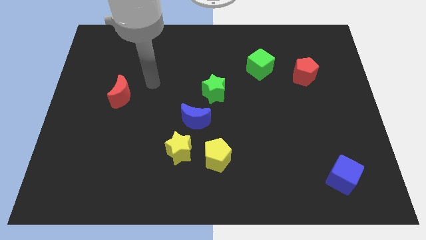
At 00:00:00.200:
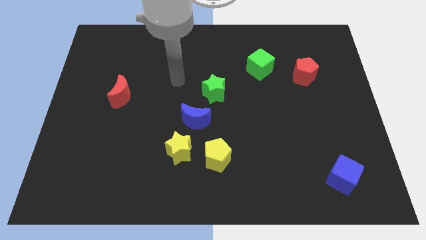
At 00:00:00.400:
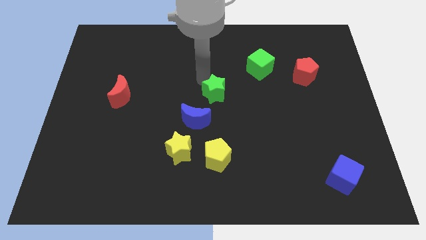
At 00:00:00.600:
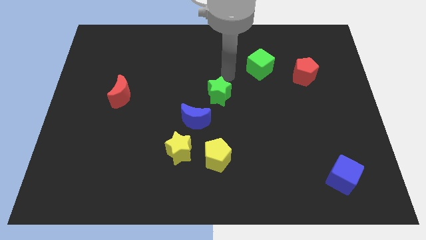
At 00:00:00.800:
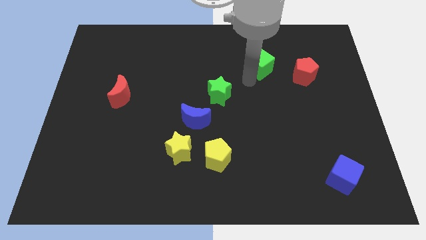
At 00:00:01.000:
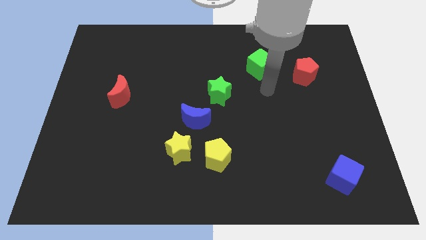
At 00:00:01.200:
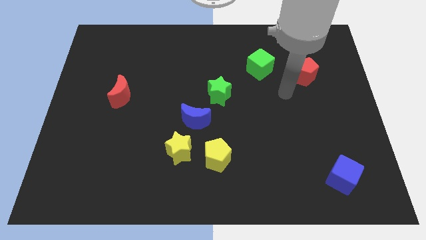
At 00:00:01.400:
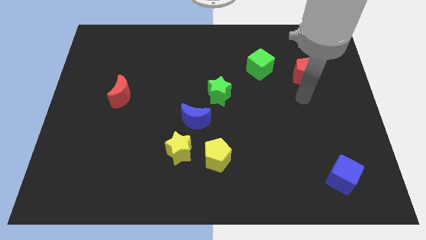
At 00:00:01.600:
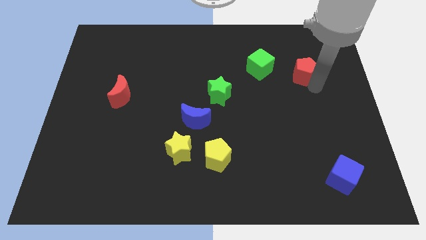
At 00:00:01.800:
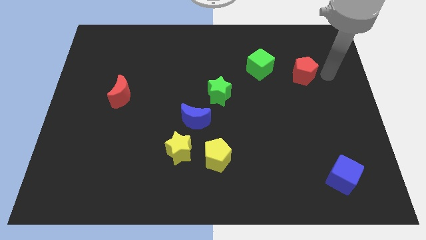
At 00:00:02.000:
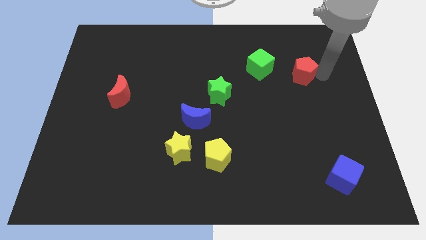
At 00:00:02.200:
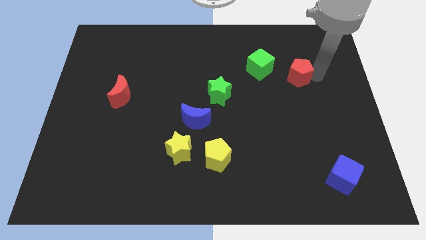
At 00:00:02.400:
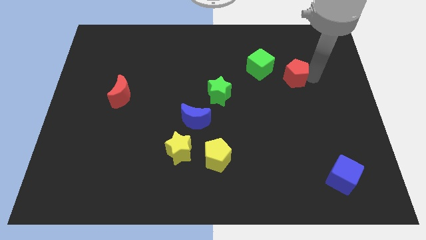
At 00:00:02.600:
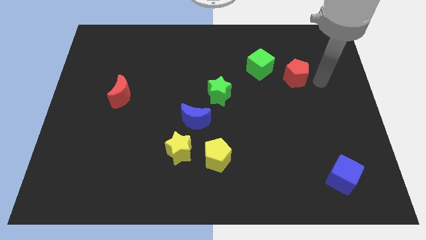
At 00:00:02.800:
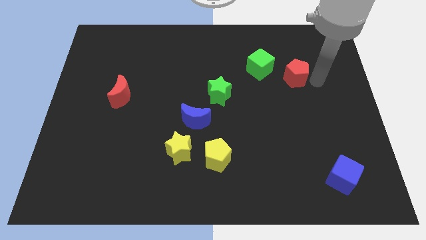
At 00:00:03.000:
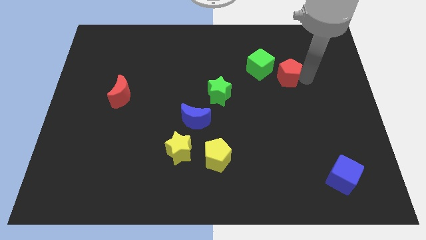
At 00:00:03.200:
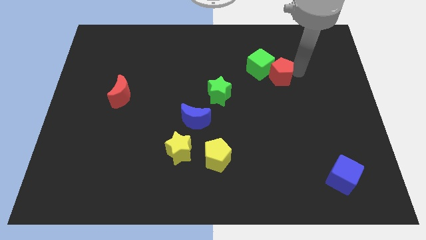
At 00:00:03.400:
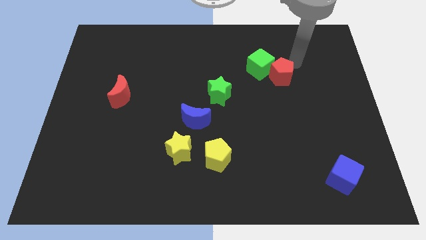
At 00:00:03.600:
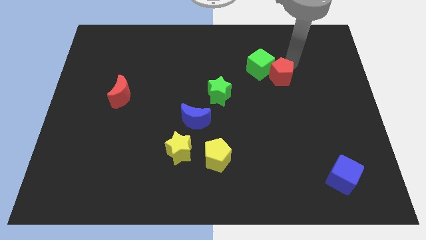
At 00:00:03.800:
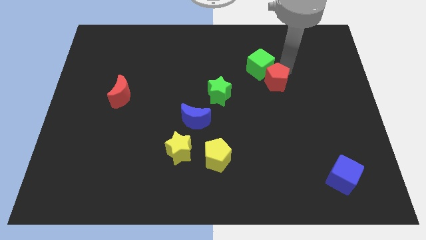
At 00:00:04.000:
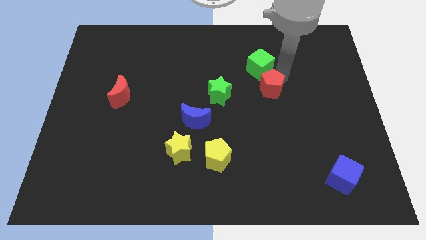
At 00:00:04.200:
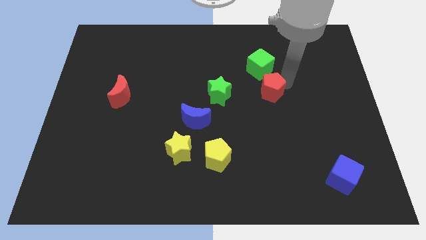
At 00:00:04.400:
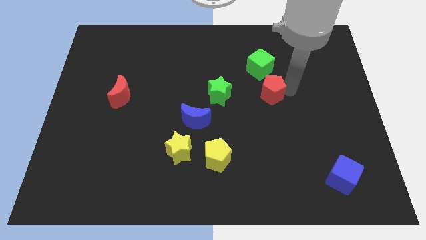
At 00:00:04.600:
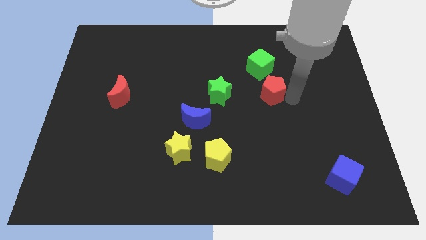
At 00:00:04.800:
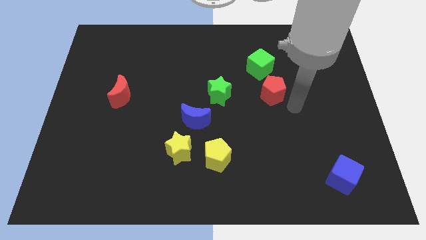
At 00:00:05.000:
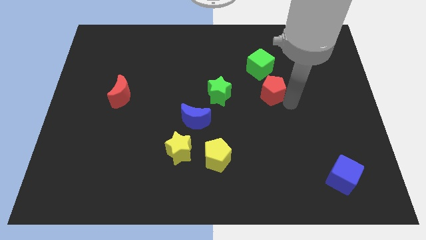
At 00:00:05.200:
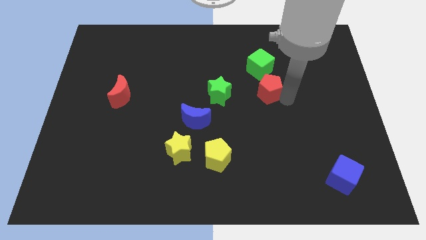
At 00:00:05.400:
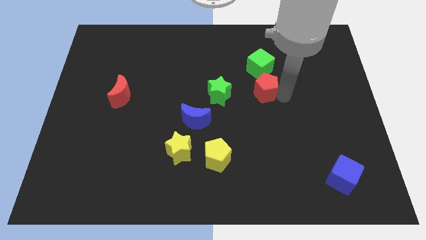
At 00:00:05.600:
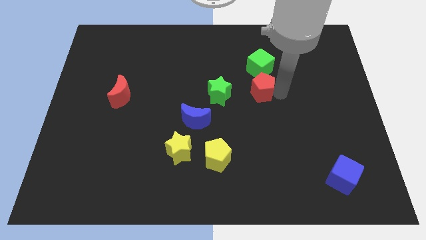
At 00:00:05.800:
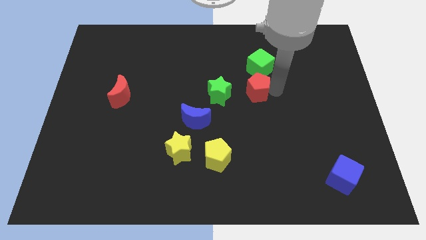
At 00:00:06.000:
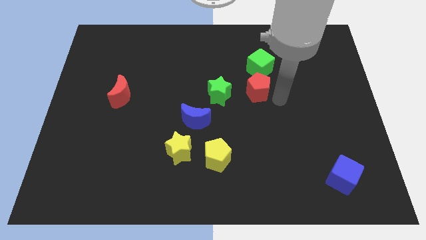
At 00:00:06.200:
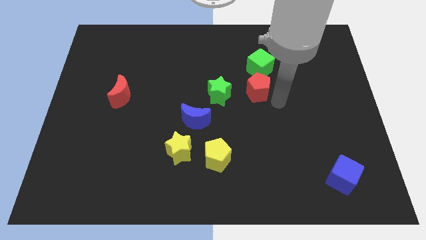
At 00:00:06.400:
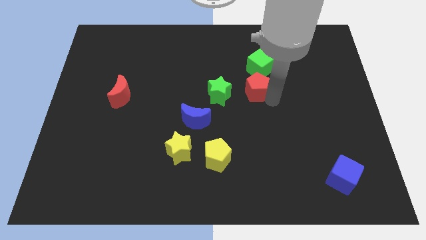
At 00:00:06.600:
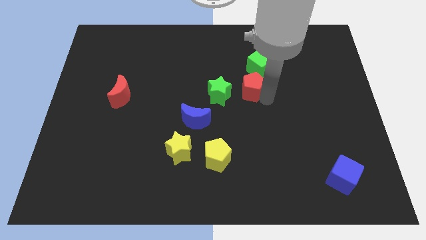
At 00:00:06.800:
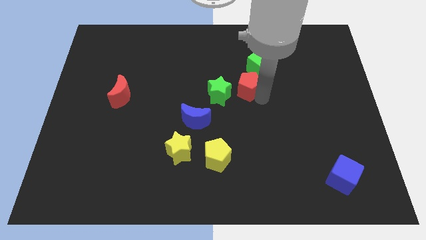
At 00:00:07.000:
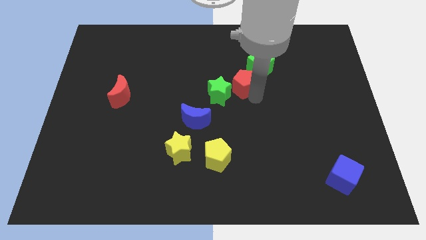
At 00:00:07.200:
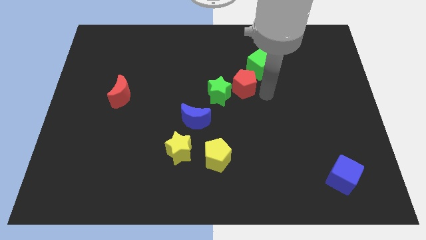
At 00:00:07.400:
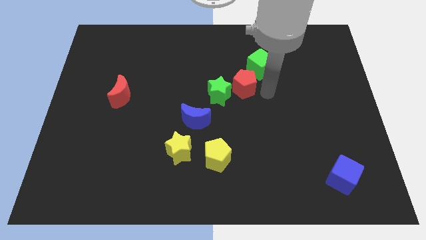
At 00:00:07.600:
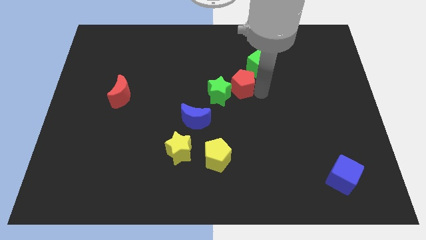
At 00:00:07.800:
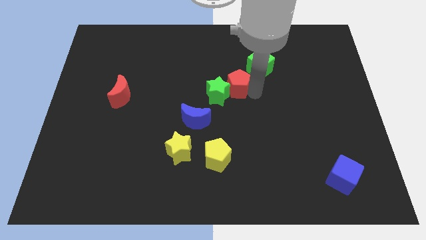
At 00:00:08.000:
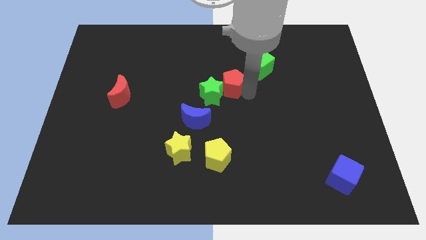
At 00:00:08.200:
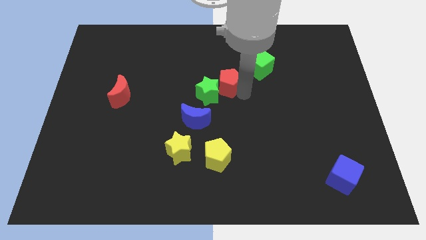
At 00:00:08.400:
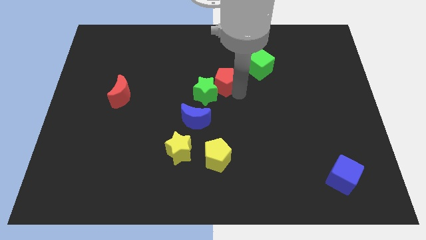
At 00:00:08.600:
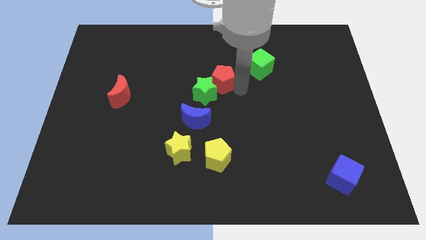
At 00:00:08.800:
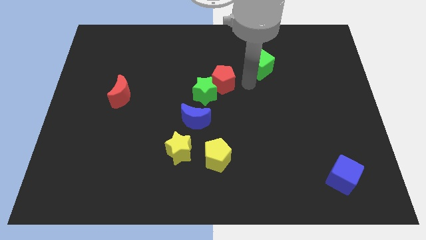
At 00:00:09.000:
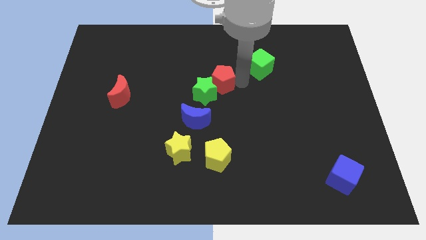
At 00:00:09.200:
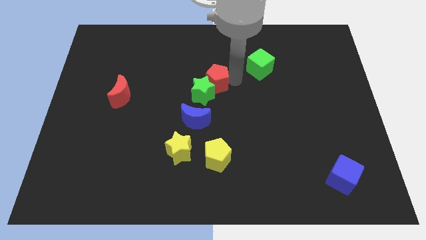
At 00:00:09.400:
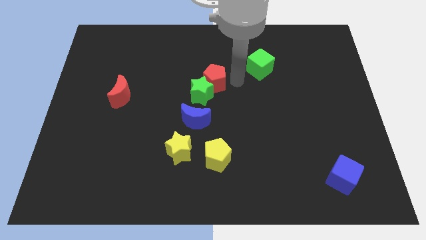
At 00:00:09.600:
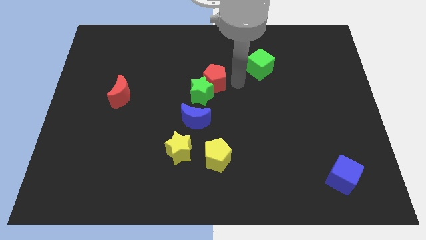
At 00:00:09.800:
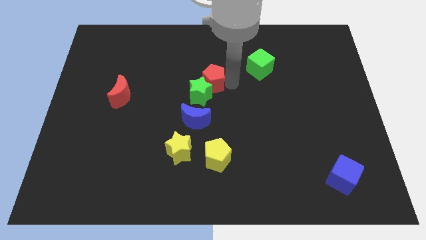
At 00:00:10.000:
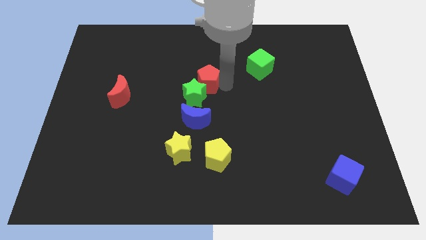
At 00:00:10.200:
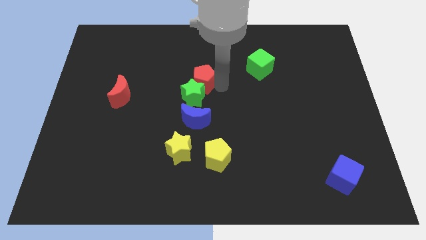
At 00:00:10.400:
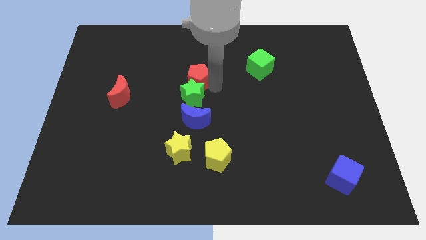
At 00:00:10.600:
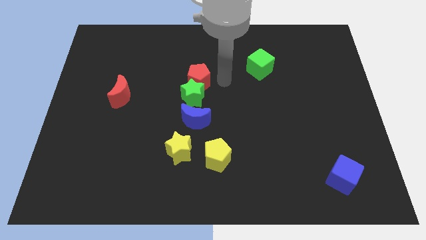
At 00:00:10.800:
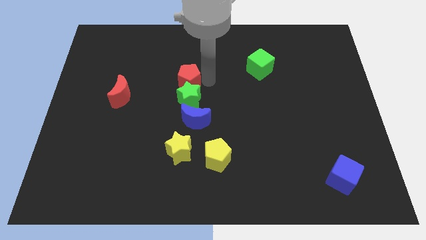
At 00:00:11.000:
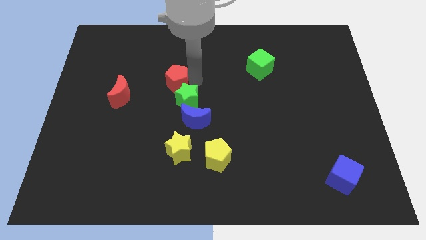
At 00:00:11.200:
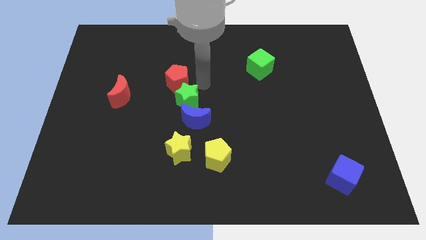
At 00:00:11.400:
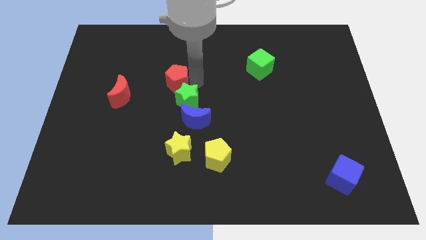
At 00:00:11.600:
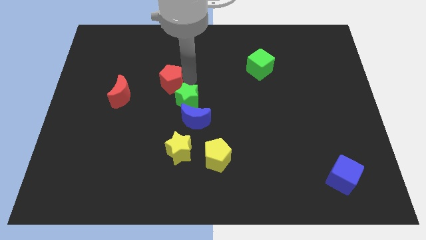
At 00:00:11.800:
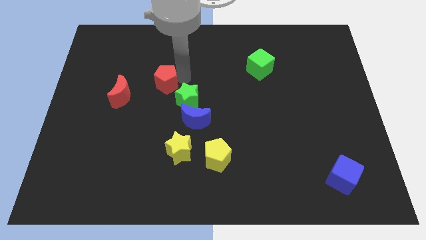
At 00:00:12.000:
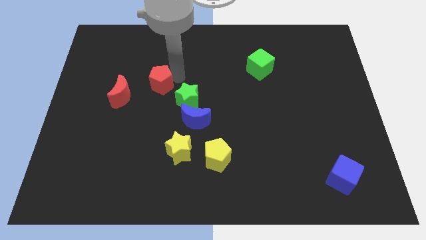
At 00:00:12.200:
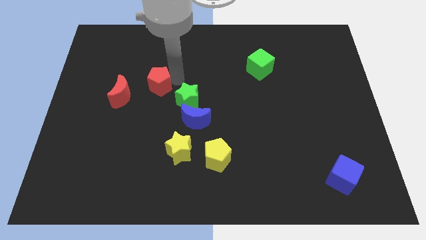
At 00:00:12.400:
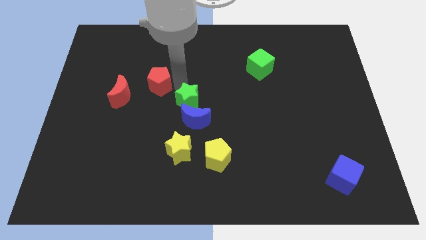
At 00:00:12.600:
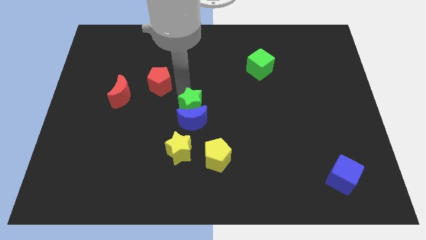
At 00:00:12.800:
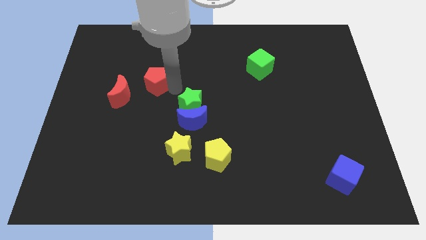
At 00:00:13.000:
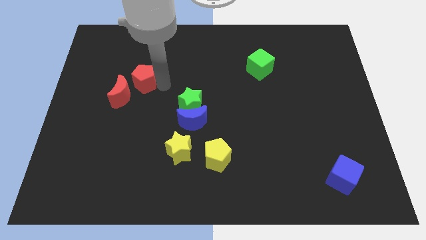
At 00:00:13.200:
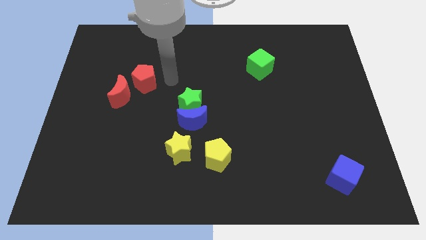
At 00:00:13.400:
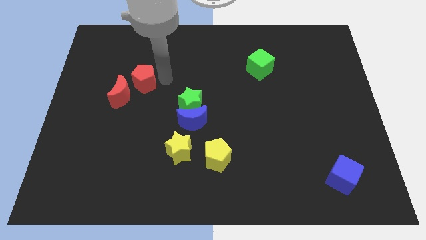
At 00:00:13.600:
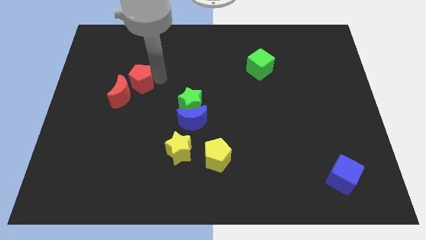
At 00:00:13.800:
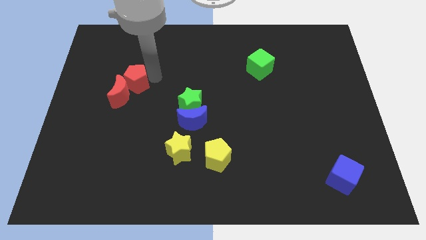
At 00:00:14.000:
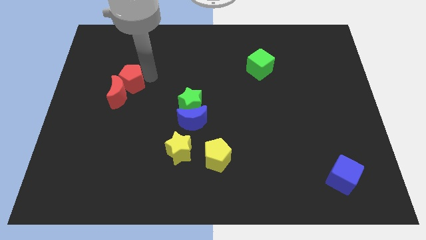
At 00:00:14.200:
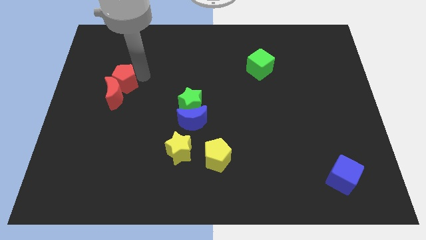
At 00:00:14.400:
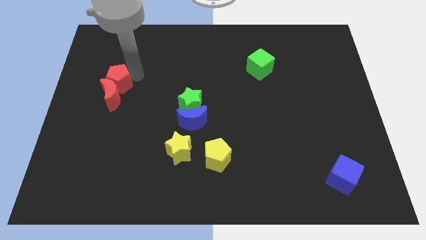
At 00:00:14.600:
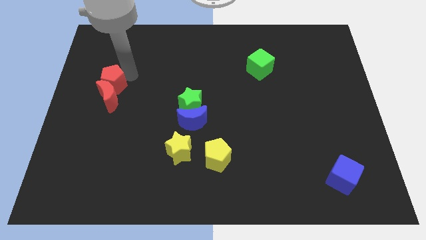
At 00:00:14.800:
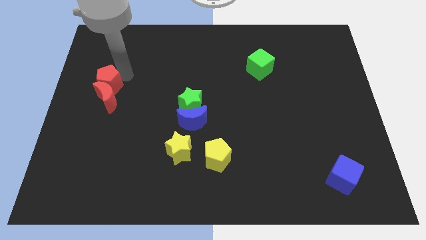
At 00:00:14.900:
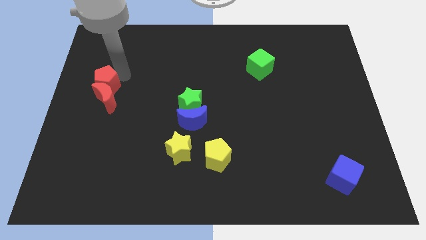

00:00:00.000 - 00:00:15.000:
slide the red pentagon to the center left
